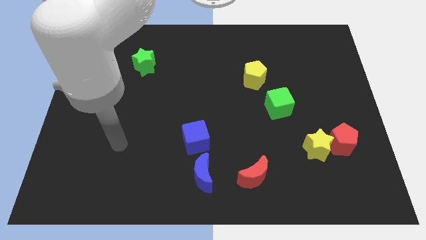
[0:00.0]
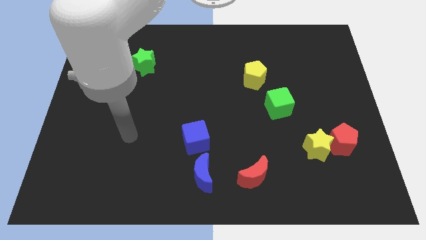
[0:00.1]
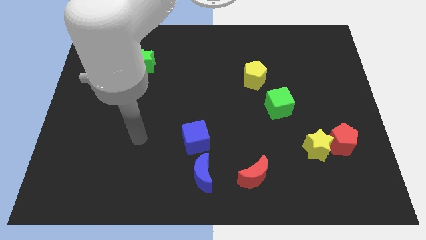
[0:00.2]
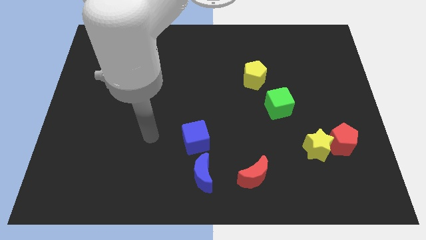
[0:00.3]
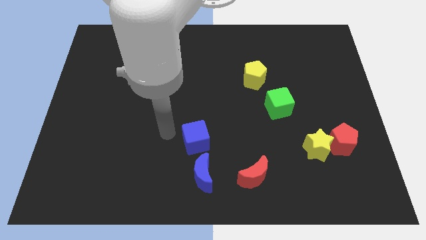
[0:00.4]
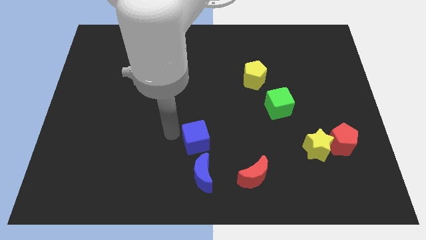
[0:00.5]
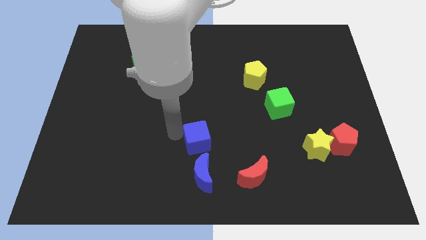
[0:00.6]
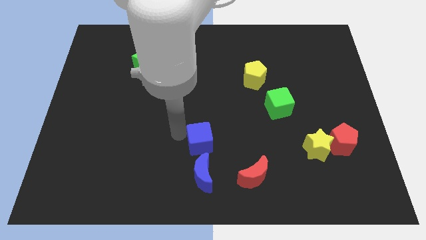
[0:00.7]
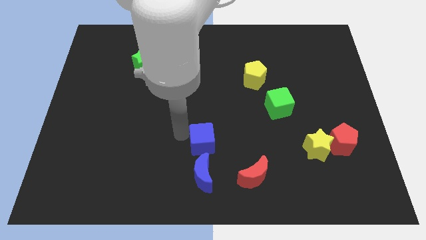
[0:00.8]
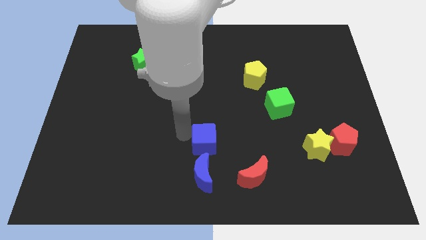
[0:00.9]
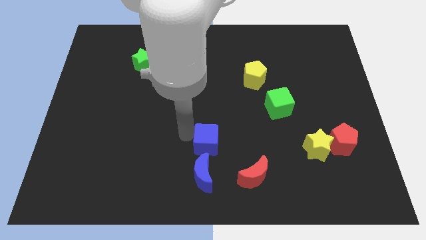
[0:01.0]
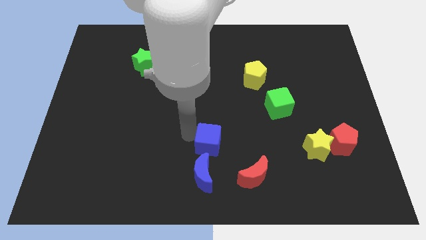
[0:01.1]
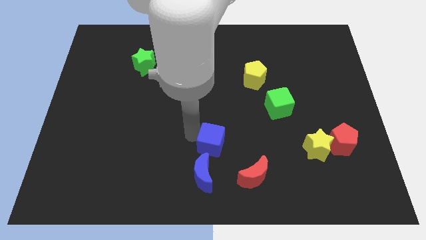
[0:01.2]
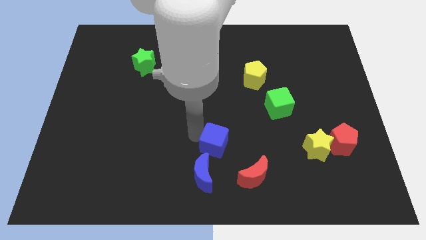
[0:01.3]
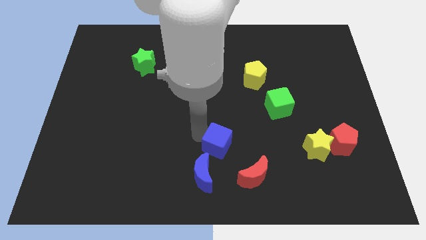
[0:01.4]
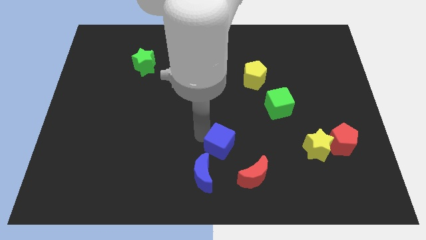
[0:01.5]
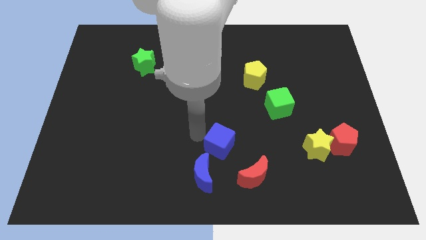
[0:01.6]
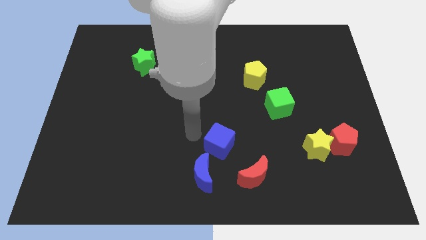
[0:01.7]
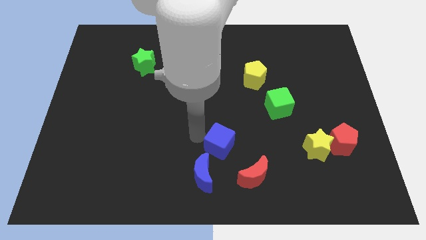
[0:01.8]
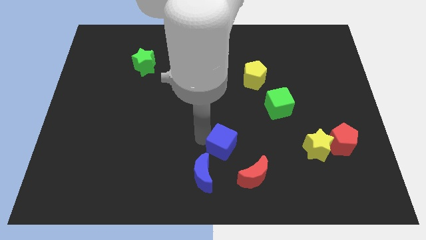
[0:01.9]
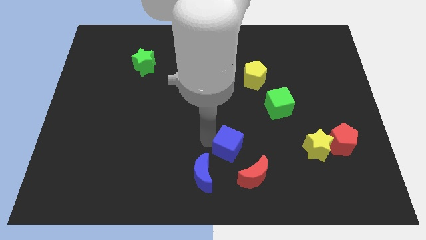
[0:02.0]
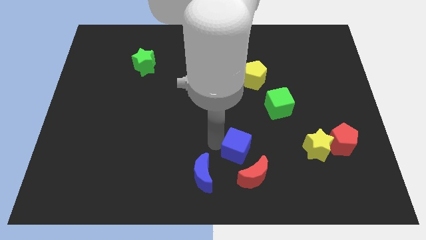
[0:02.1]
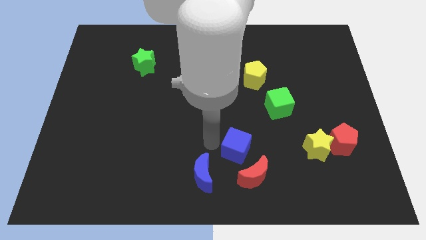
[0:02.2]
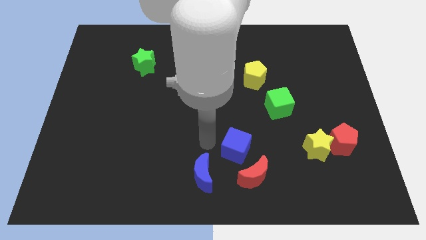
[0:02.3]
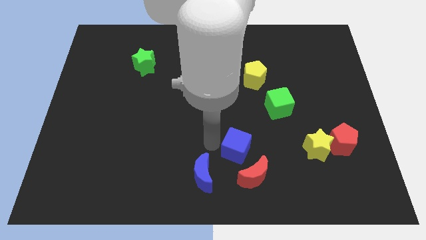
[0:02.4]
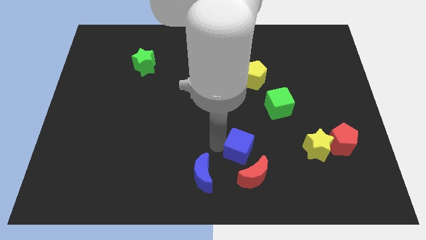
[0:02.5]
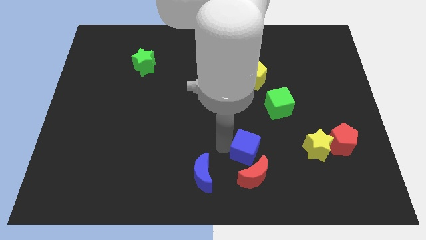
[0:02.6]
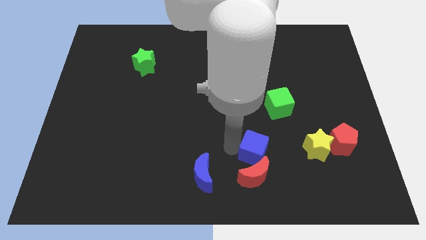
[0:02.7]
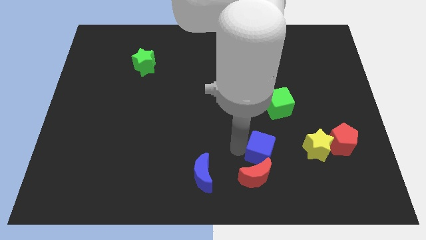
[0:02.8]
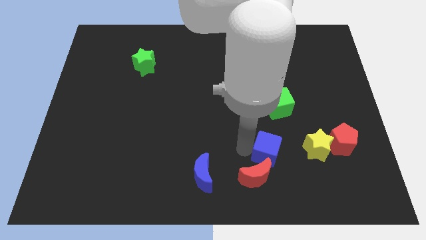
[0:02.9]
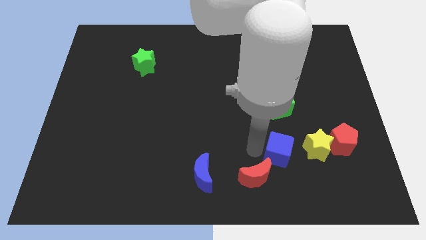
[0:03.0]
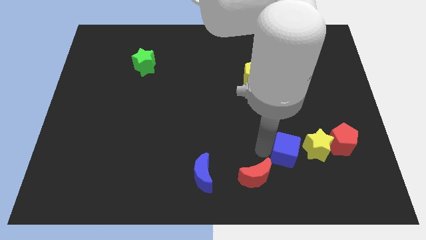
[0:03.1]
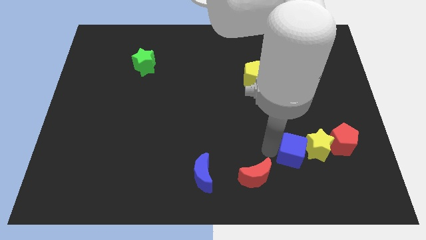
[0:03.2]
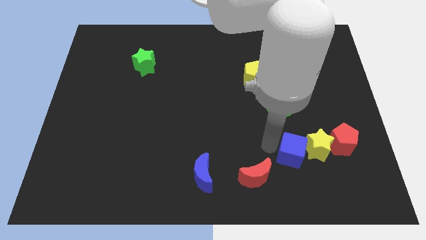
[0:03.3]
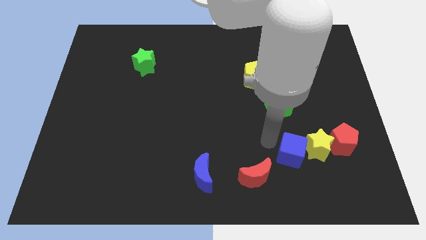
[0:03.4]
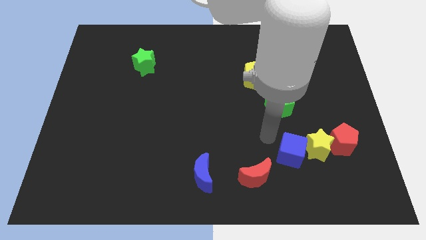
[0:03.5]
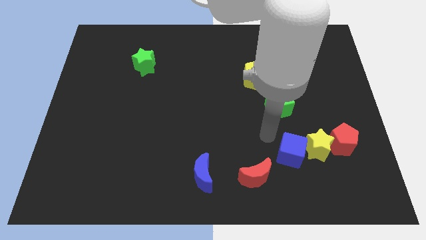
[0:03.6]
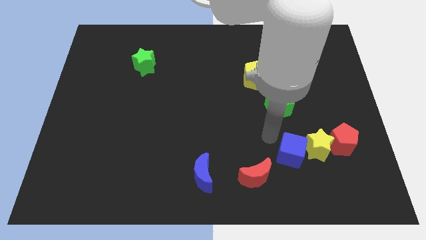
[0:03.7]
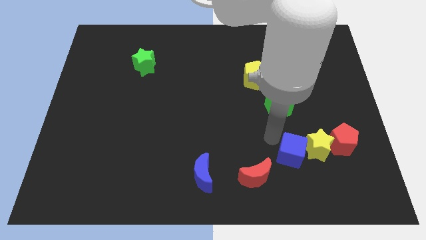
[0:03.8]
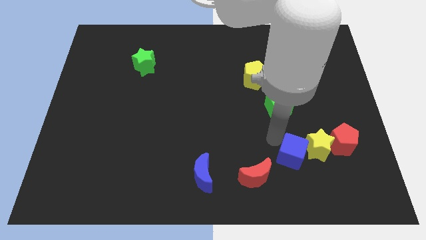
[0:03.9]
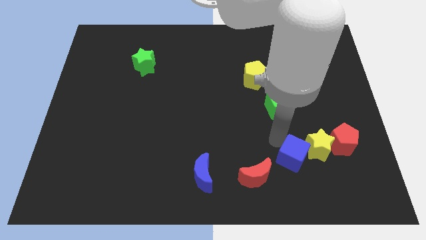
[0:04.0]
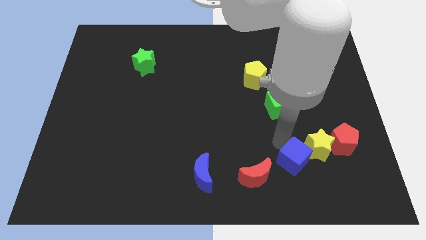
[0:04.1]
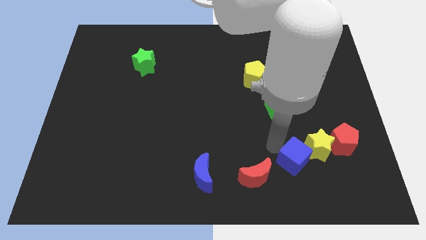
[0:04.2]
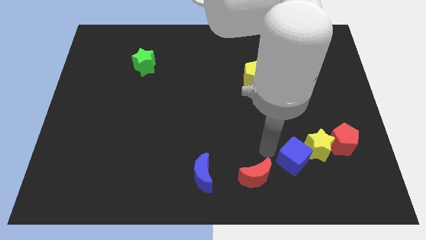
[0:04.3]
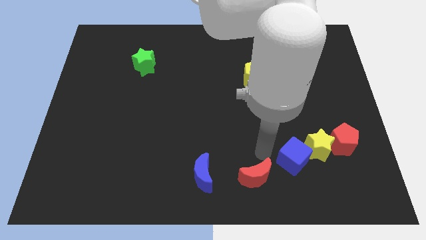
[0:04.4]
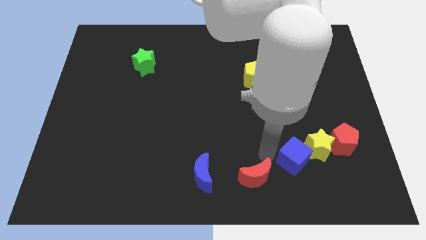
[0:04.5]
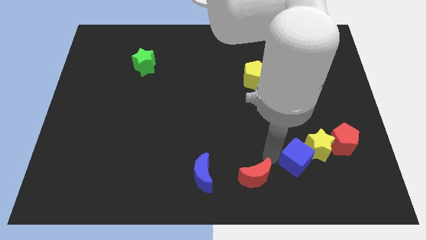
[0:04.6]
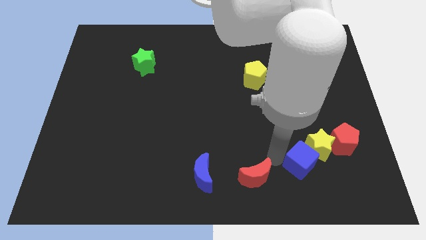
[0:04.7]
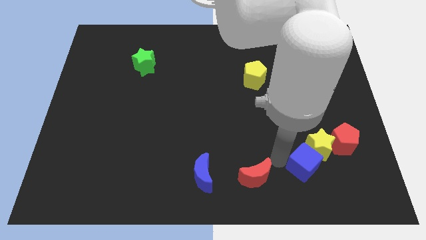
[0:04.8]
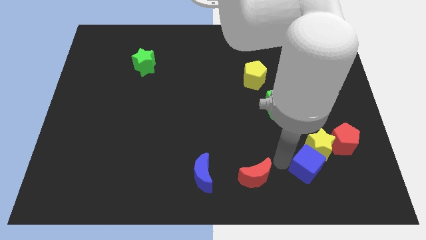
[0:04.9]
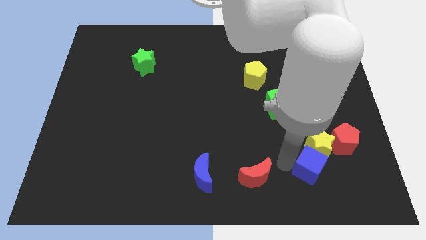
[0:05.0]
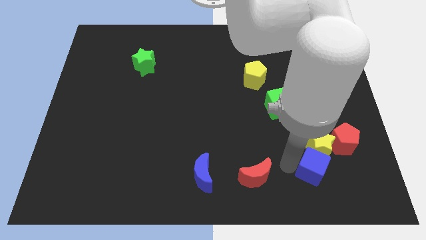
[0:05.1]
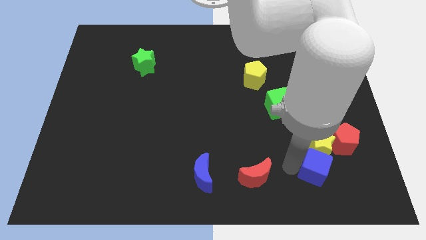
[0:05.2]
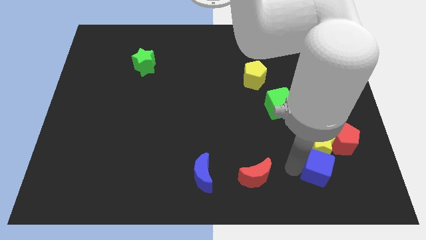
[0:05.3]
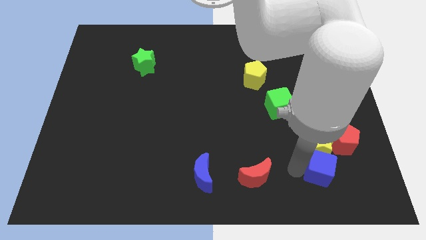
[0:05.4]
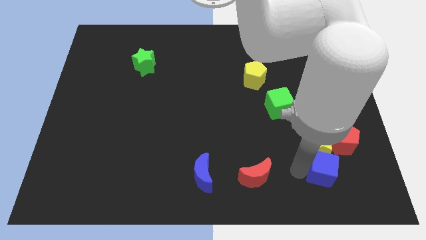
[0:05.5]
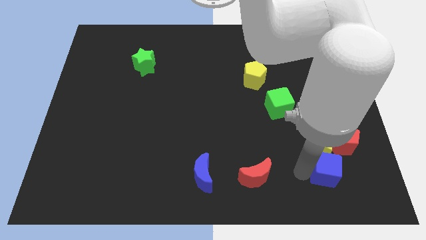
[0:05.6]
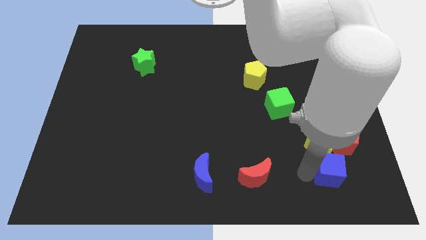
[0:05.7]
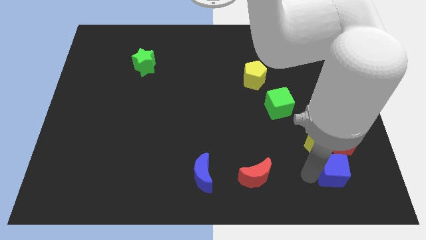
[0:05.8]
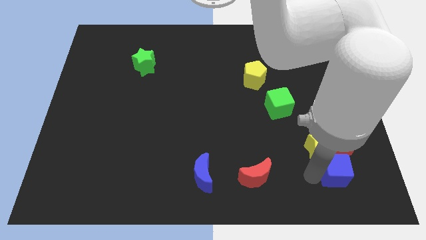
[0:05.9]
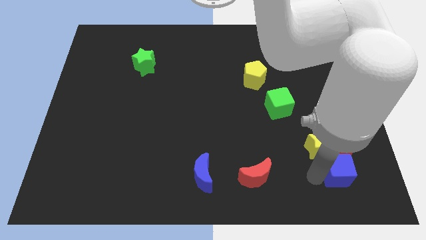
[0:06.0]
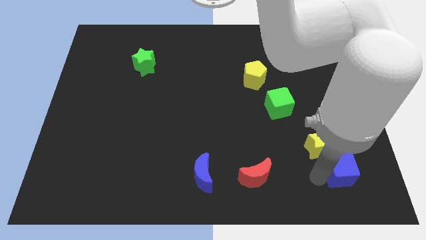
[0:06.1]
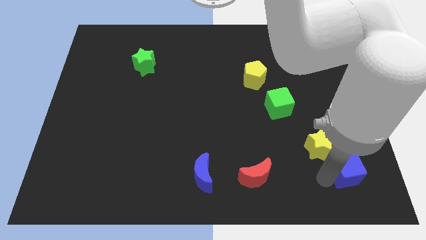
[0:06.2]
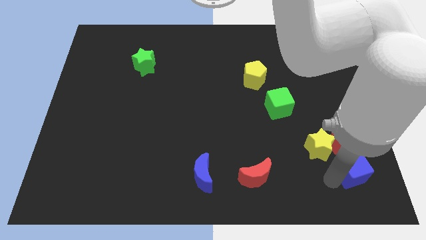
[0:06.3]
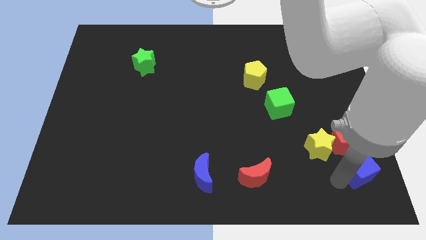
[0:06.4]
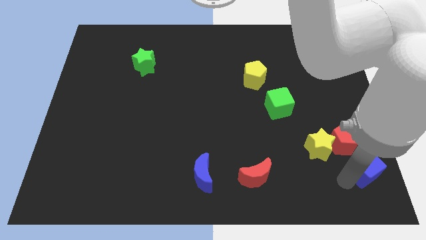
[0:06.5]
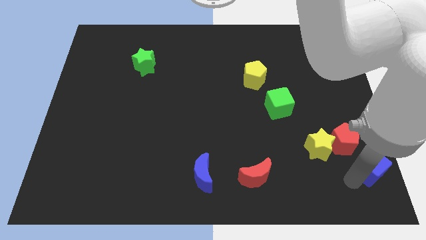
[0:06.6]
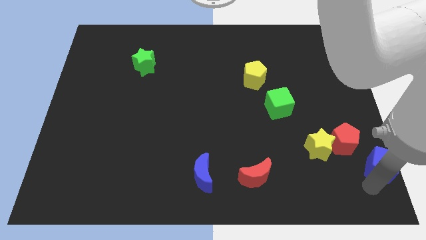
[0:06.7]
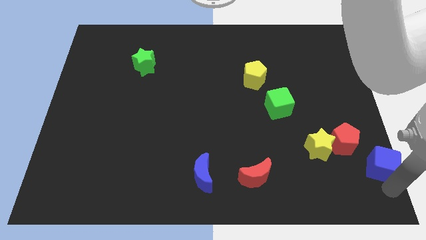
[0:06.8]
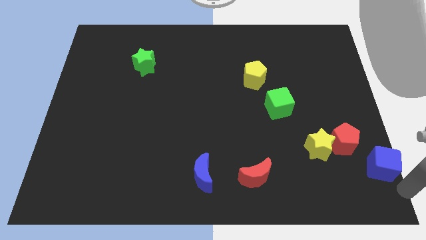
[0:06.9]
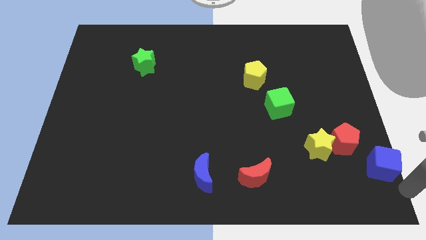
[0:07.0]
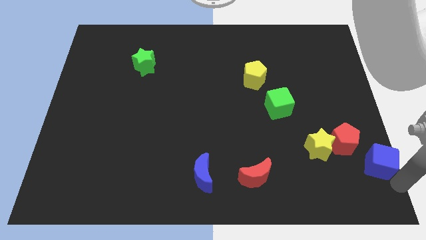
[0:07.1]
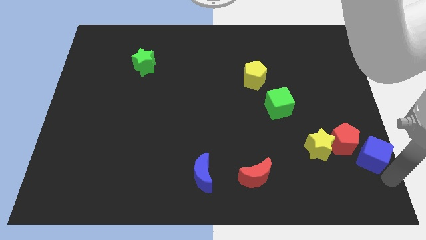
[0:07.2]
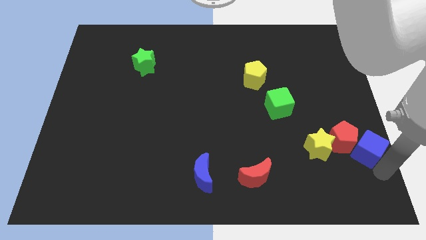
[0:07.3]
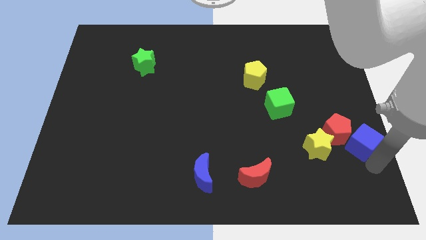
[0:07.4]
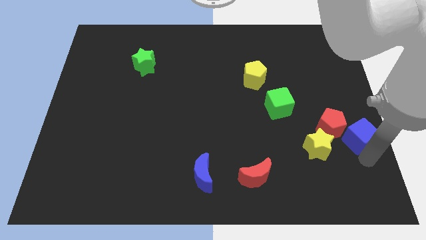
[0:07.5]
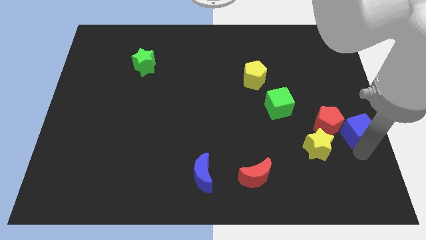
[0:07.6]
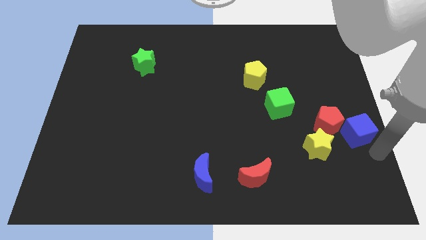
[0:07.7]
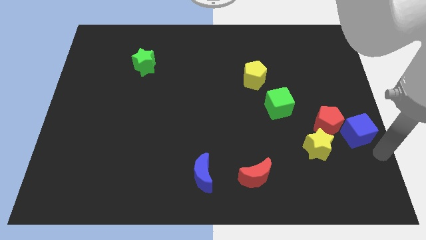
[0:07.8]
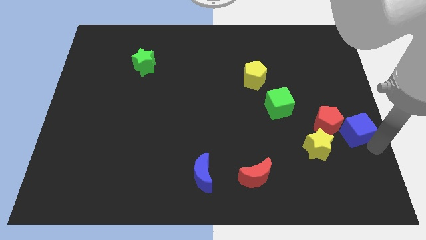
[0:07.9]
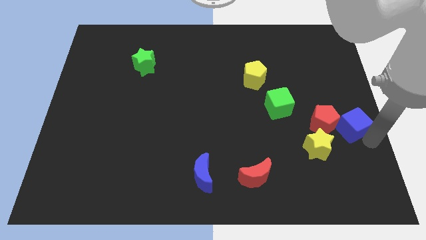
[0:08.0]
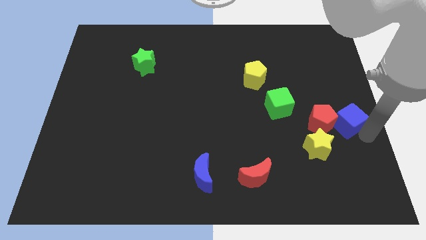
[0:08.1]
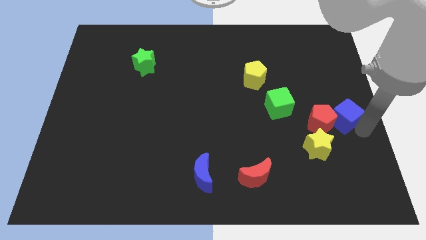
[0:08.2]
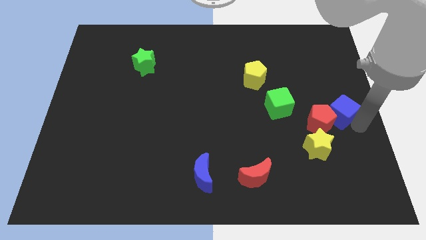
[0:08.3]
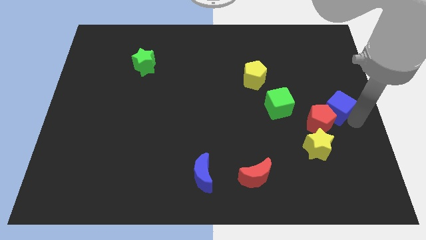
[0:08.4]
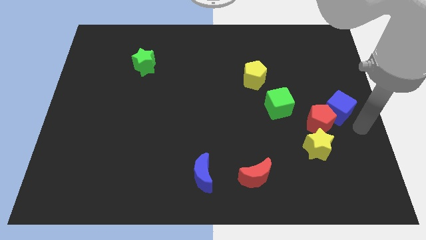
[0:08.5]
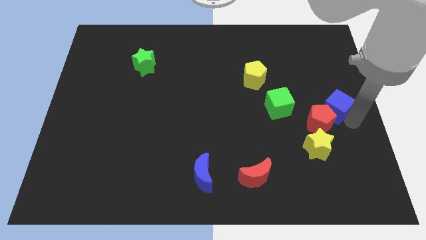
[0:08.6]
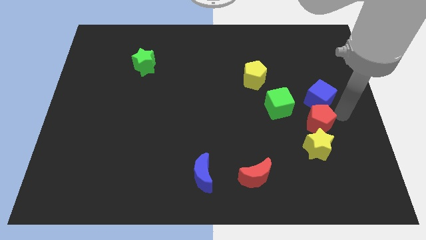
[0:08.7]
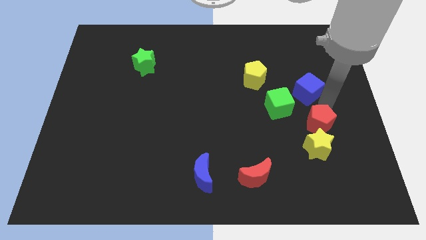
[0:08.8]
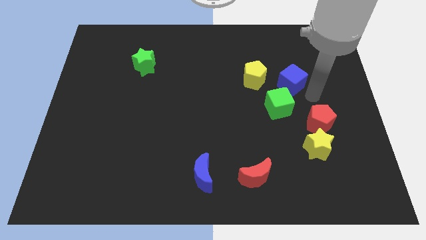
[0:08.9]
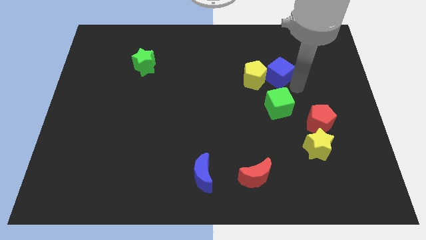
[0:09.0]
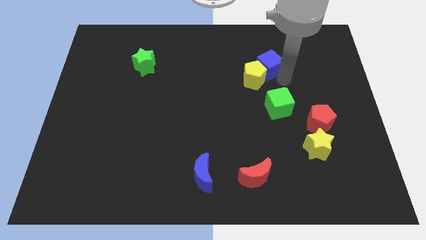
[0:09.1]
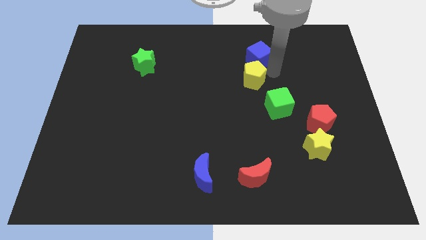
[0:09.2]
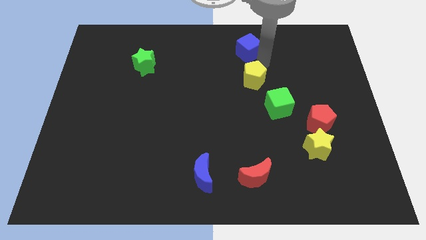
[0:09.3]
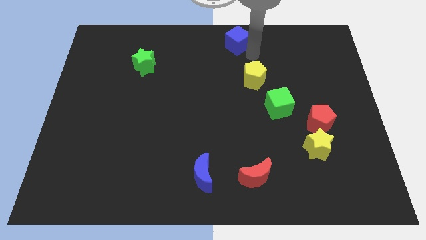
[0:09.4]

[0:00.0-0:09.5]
push the blue cube to the top
